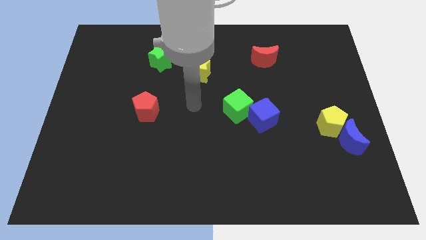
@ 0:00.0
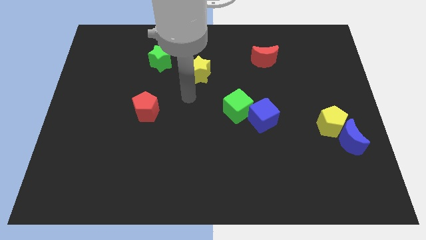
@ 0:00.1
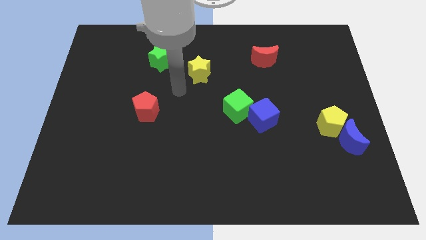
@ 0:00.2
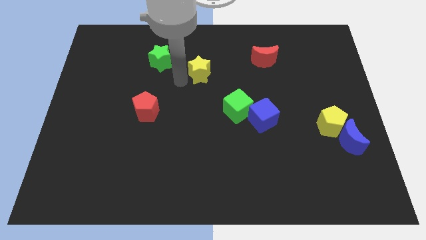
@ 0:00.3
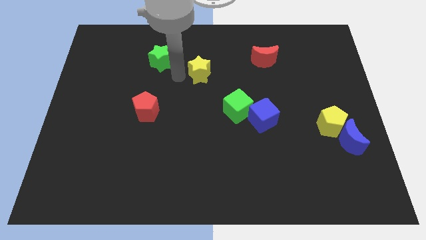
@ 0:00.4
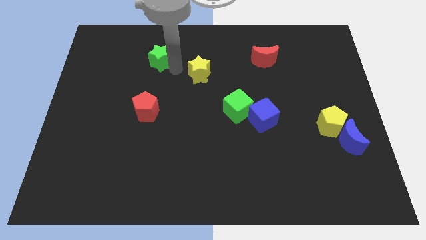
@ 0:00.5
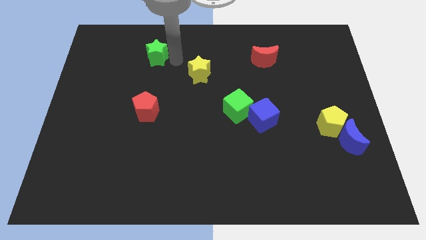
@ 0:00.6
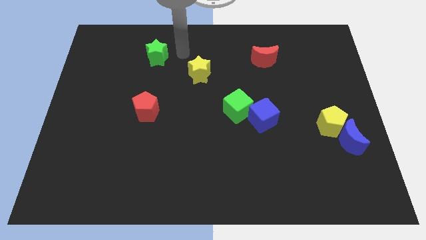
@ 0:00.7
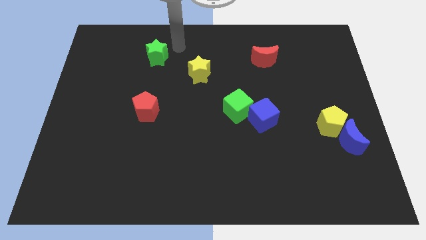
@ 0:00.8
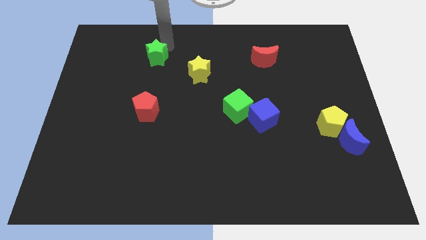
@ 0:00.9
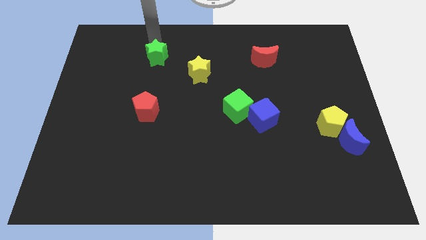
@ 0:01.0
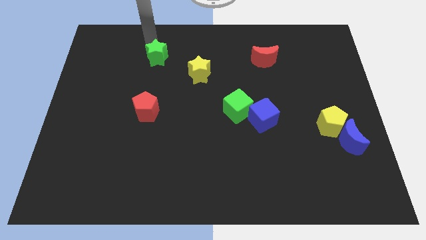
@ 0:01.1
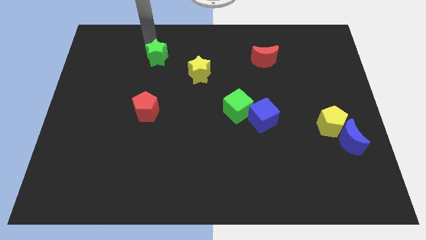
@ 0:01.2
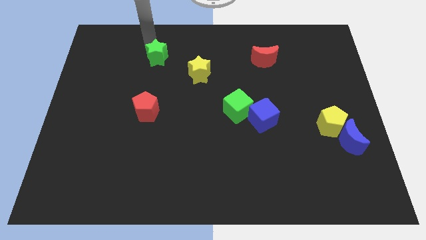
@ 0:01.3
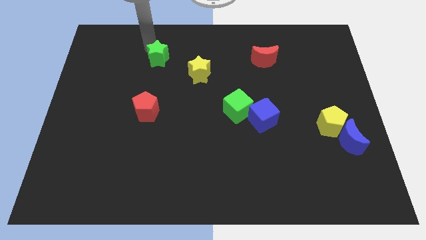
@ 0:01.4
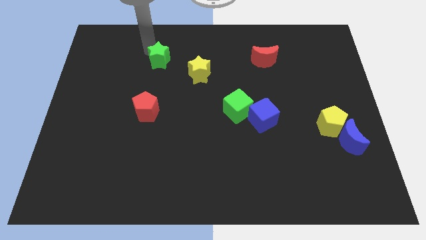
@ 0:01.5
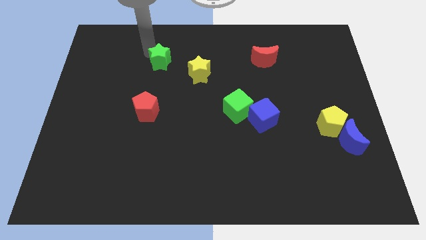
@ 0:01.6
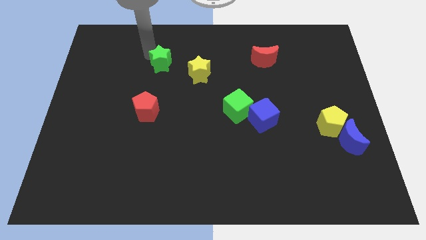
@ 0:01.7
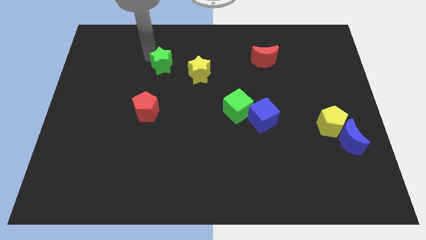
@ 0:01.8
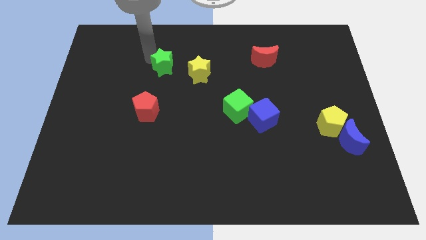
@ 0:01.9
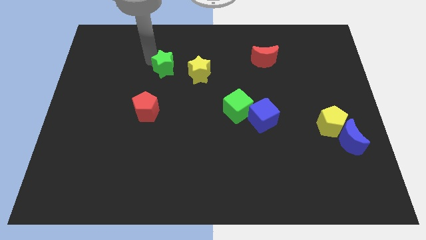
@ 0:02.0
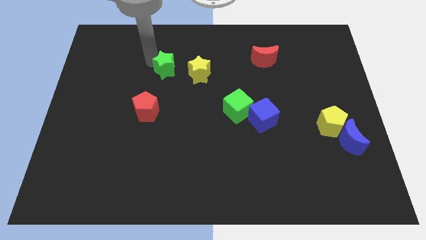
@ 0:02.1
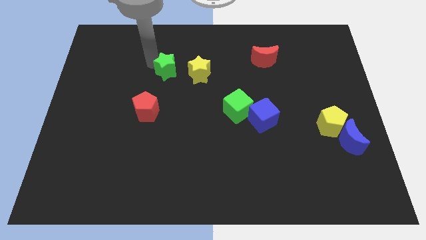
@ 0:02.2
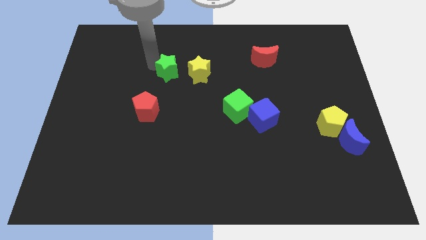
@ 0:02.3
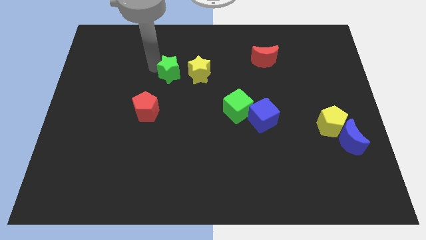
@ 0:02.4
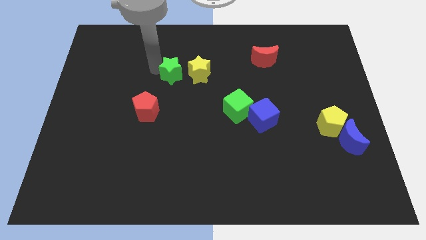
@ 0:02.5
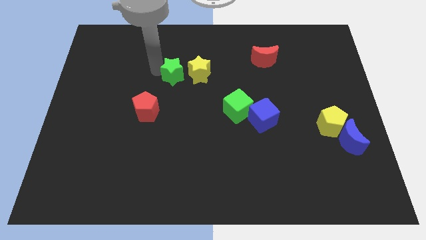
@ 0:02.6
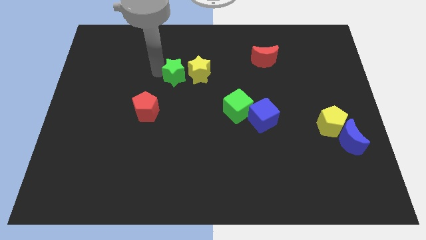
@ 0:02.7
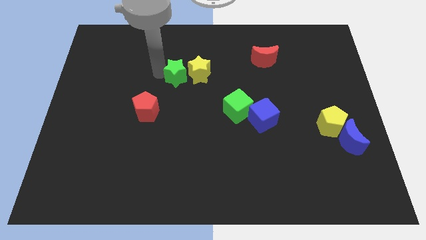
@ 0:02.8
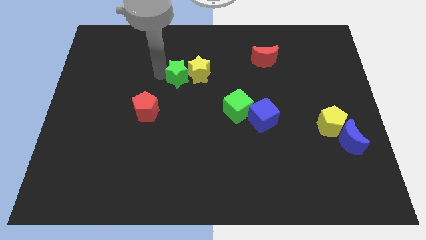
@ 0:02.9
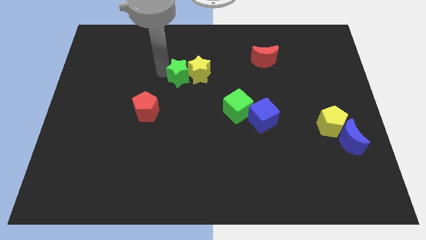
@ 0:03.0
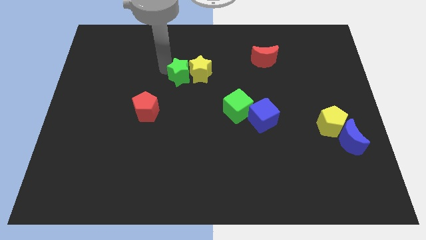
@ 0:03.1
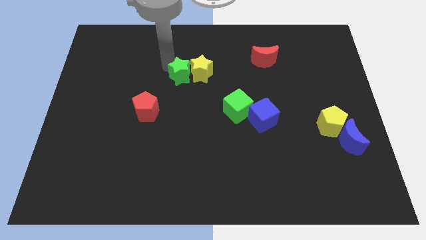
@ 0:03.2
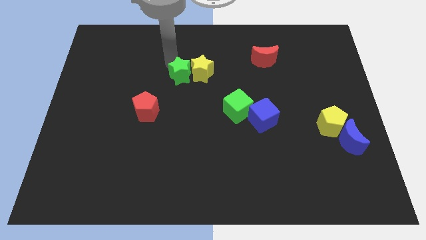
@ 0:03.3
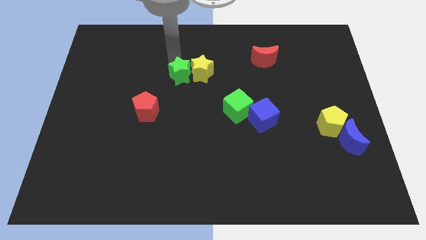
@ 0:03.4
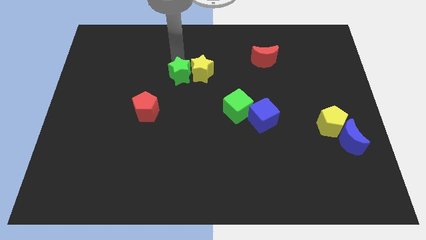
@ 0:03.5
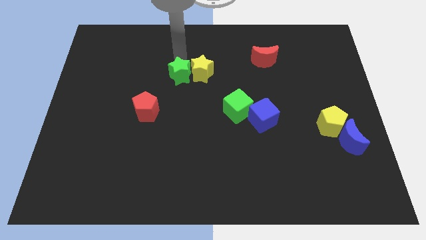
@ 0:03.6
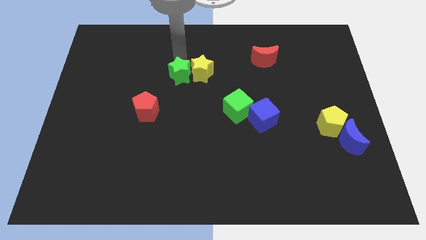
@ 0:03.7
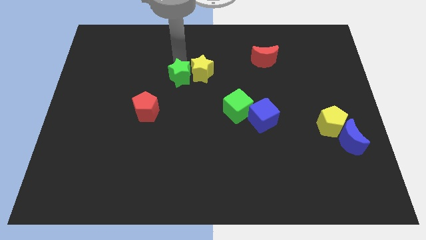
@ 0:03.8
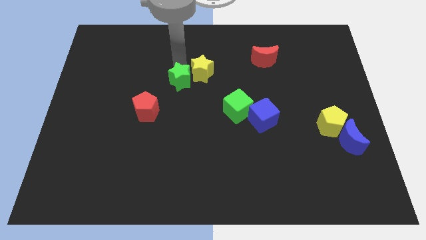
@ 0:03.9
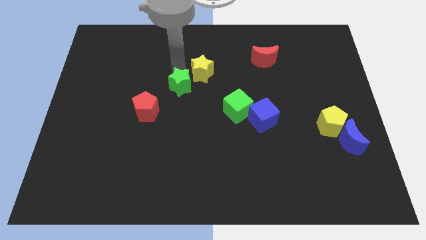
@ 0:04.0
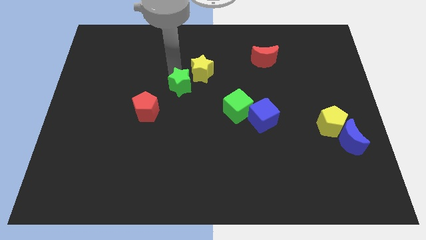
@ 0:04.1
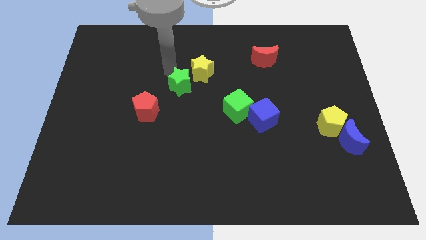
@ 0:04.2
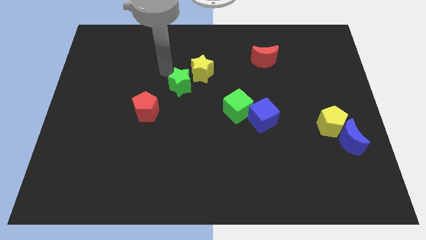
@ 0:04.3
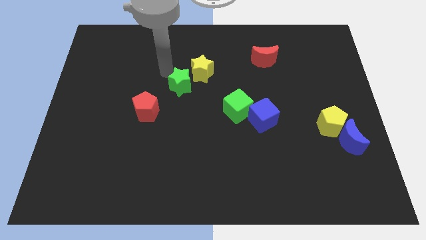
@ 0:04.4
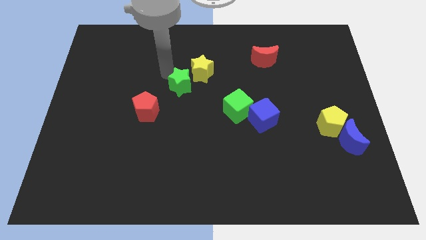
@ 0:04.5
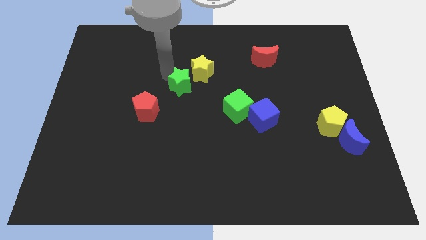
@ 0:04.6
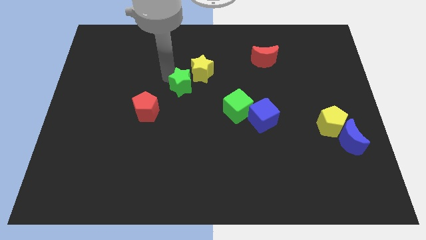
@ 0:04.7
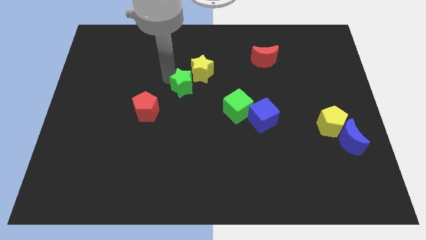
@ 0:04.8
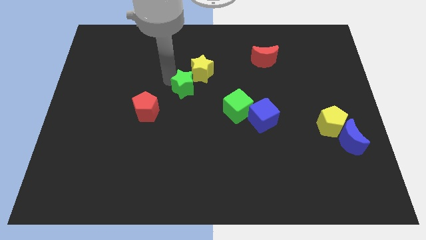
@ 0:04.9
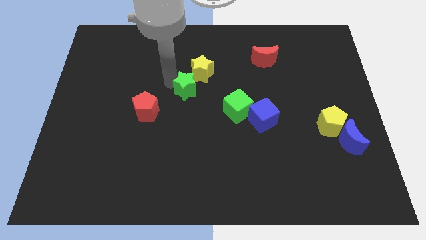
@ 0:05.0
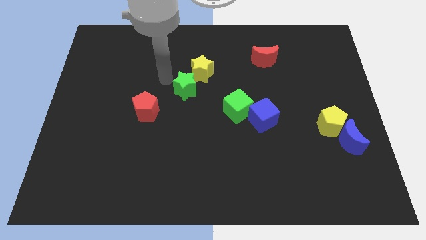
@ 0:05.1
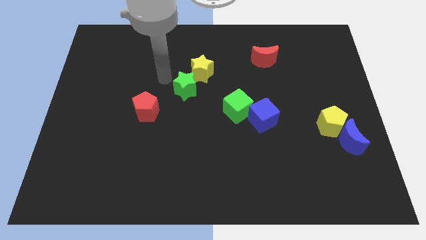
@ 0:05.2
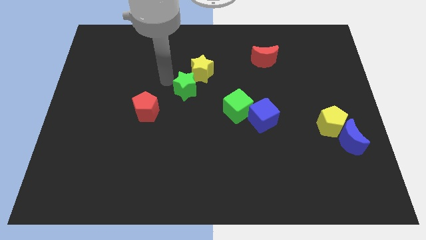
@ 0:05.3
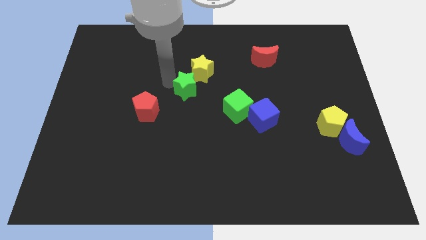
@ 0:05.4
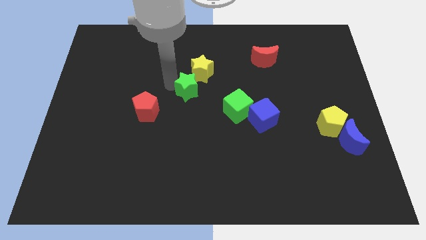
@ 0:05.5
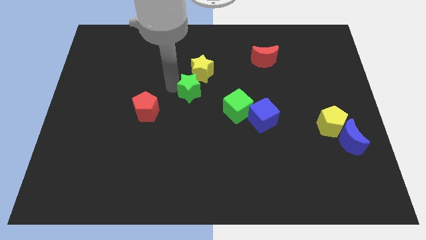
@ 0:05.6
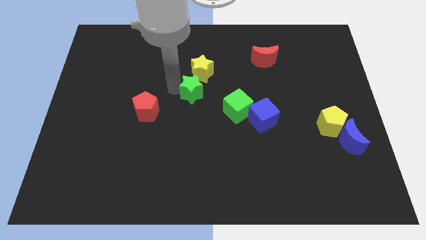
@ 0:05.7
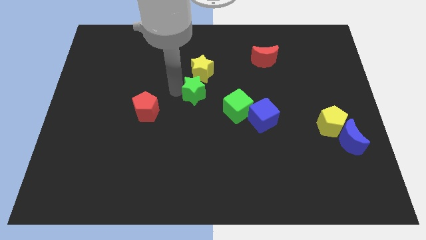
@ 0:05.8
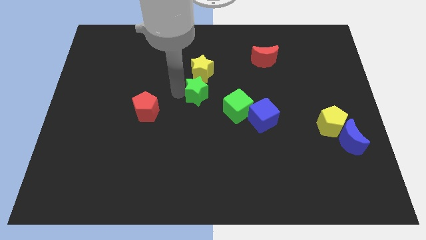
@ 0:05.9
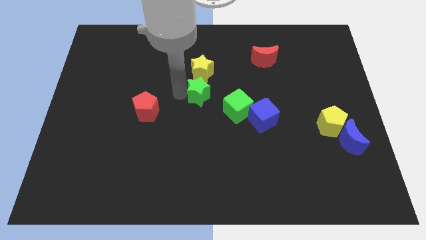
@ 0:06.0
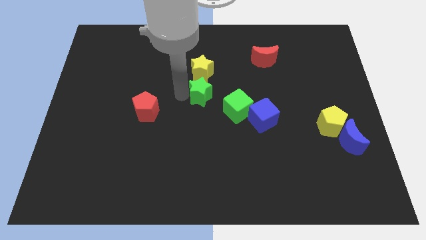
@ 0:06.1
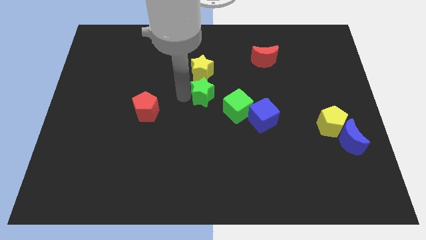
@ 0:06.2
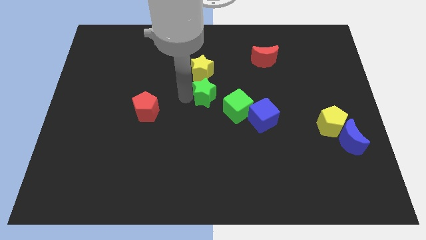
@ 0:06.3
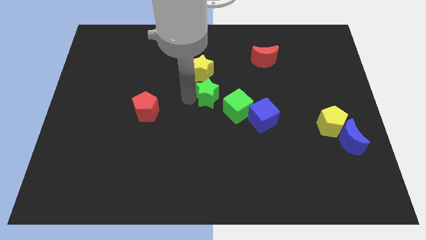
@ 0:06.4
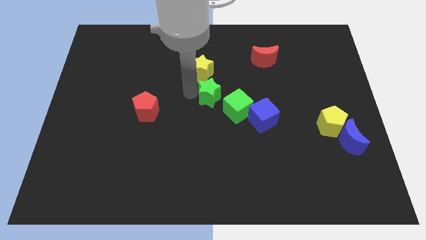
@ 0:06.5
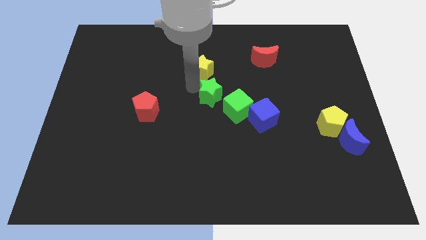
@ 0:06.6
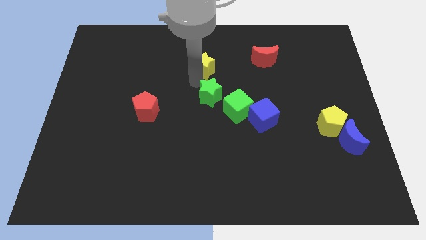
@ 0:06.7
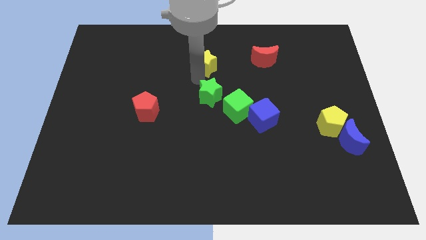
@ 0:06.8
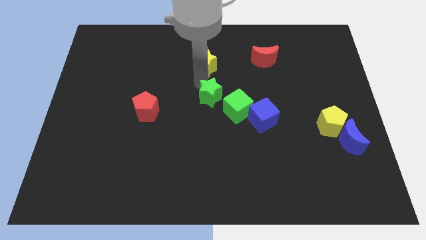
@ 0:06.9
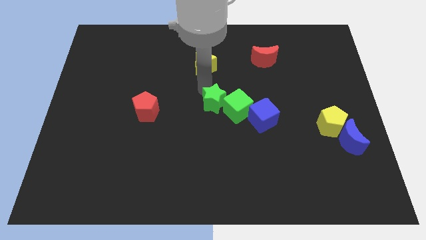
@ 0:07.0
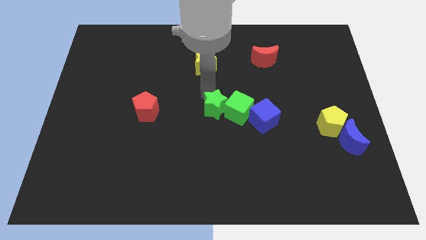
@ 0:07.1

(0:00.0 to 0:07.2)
slide the green star down and then to the right

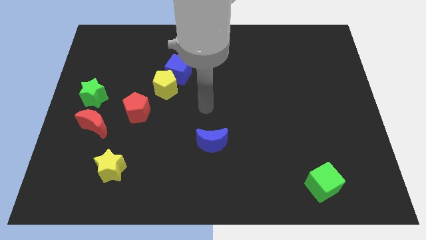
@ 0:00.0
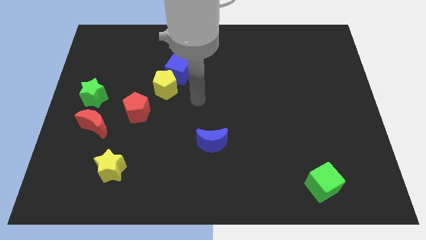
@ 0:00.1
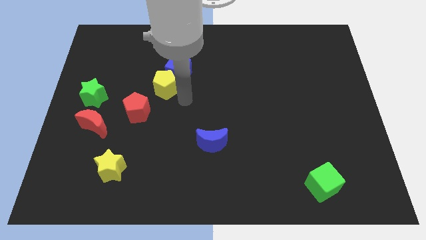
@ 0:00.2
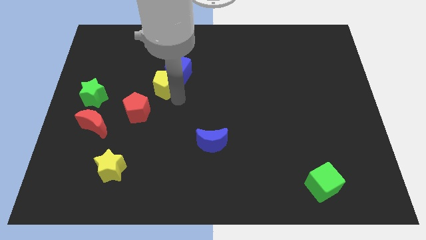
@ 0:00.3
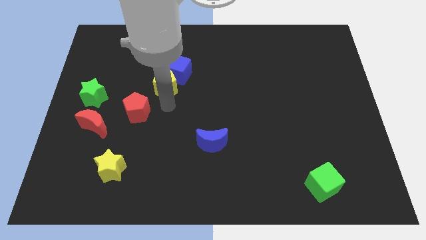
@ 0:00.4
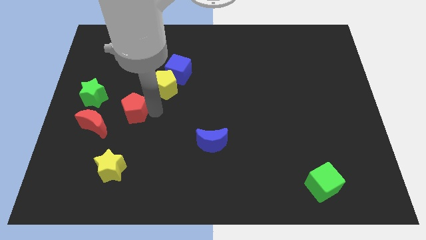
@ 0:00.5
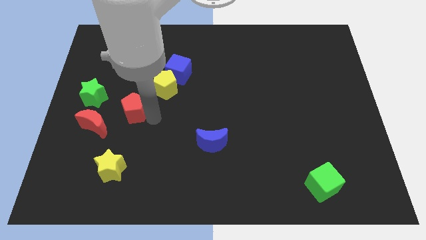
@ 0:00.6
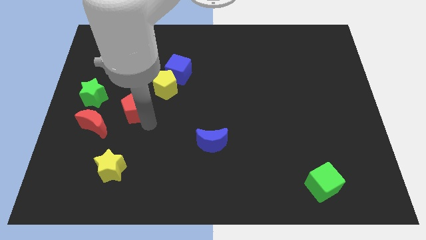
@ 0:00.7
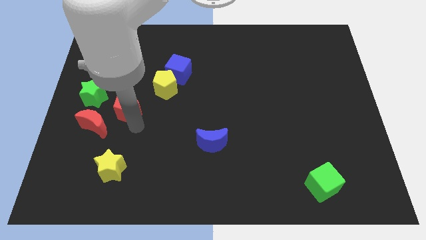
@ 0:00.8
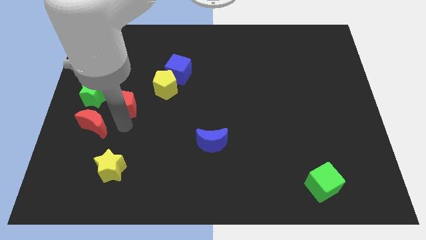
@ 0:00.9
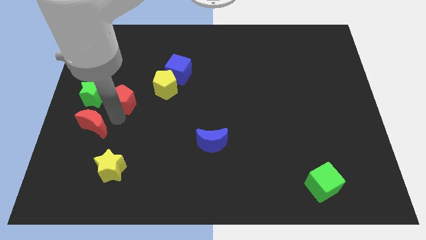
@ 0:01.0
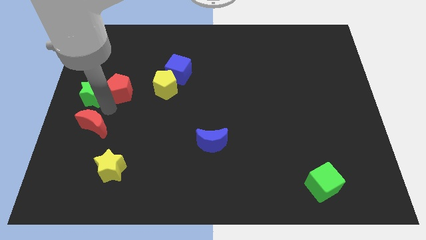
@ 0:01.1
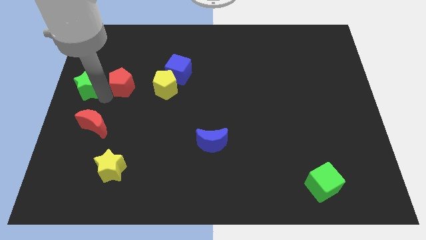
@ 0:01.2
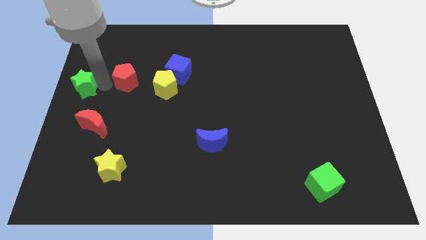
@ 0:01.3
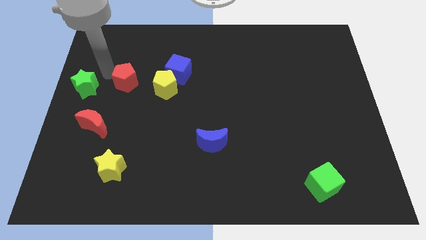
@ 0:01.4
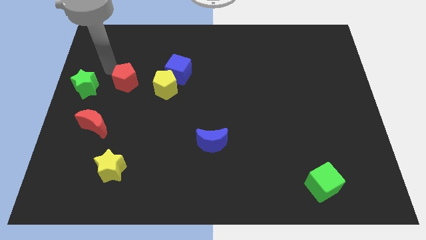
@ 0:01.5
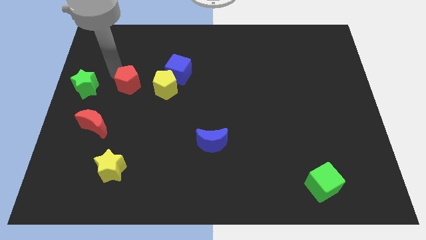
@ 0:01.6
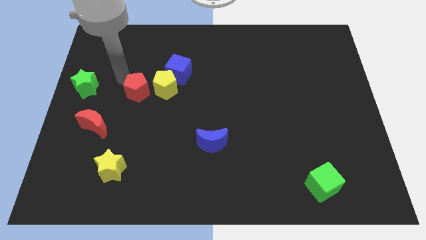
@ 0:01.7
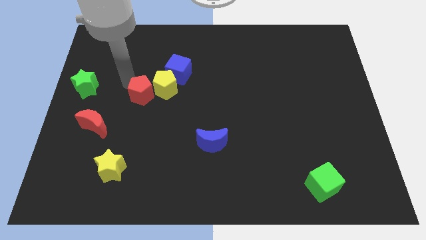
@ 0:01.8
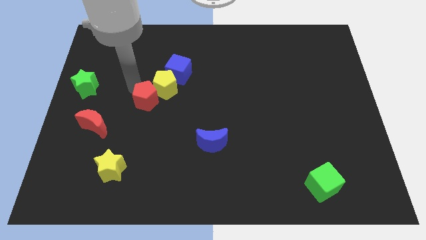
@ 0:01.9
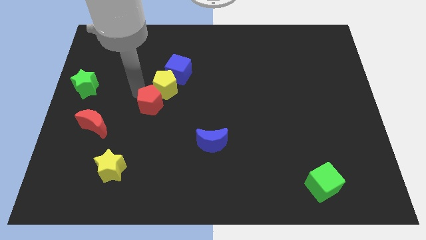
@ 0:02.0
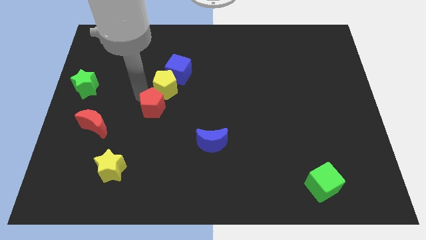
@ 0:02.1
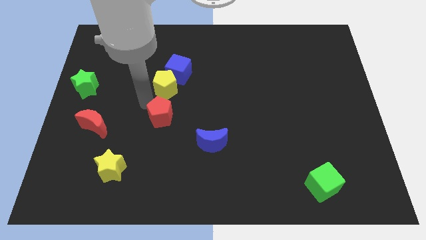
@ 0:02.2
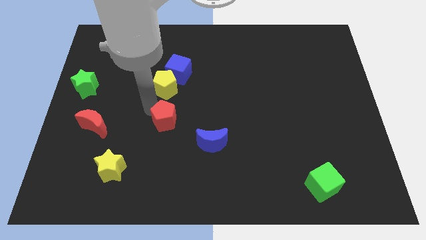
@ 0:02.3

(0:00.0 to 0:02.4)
move the red pentagon to the right somewhat
